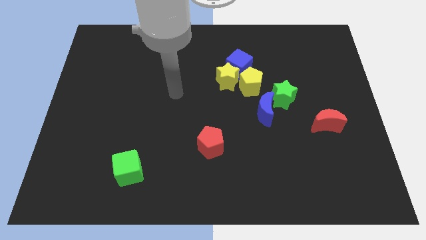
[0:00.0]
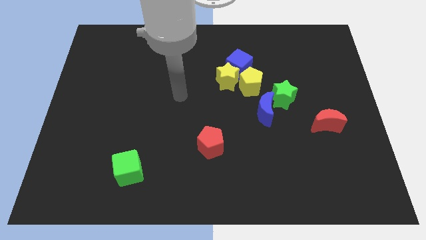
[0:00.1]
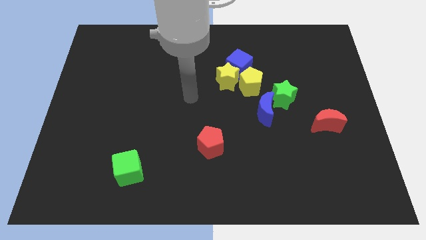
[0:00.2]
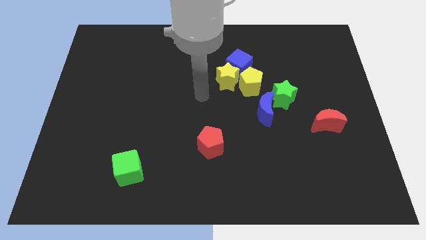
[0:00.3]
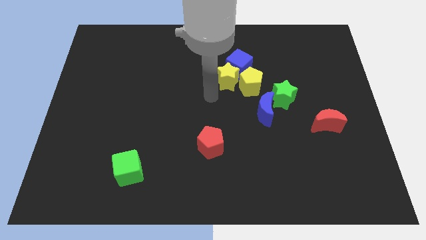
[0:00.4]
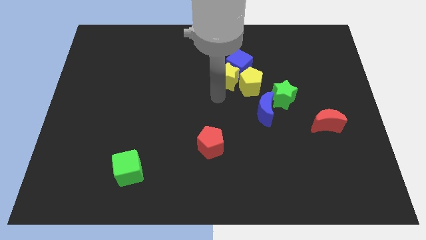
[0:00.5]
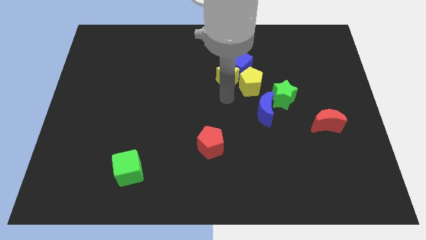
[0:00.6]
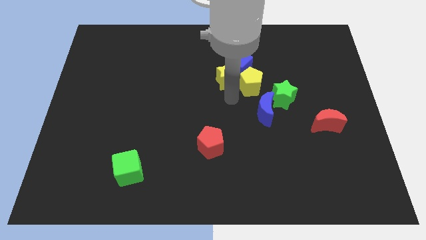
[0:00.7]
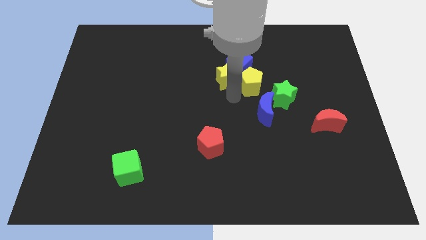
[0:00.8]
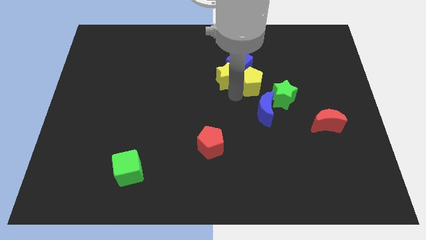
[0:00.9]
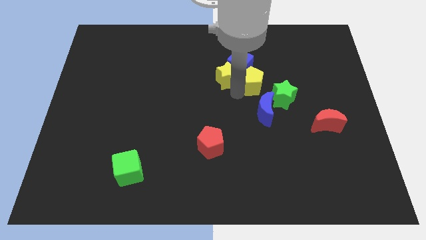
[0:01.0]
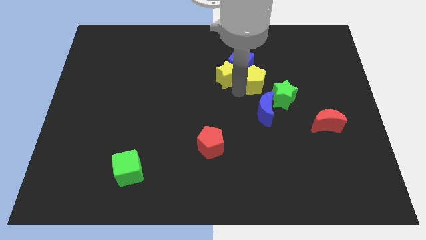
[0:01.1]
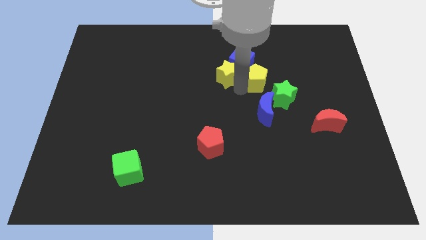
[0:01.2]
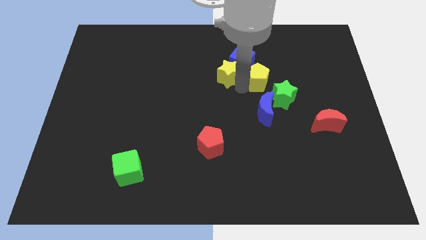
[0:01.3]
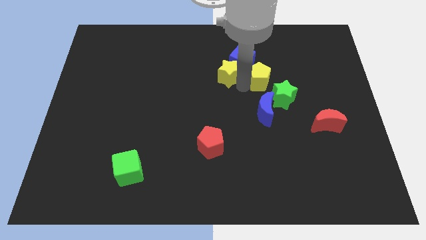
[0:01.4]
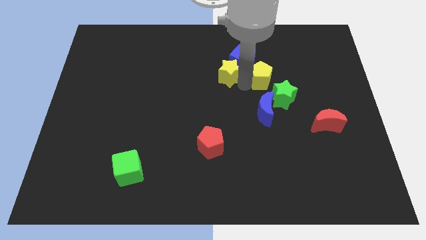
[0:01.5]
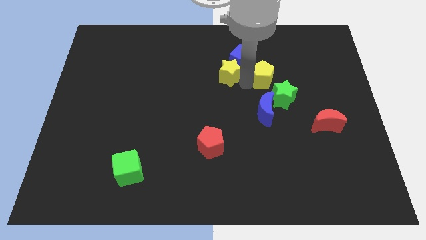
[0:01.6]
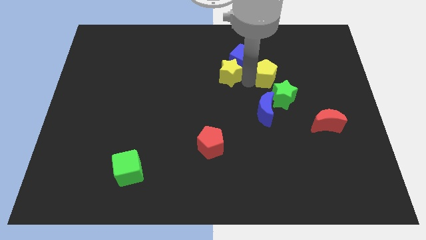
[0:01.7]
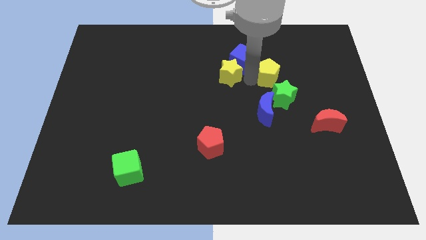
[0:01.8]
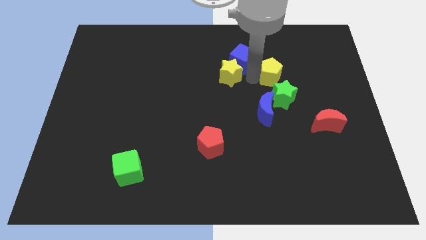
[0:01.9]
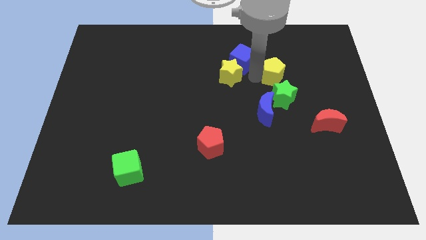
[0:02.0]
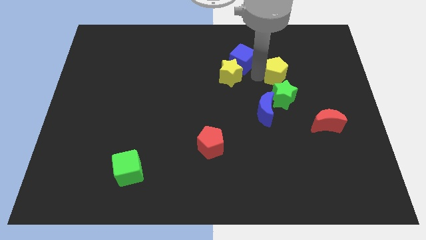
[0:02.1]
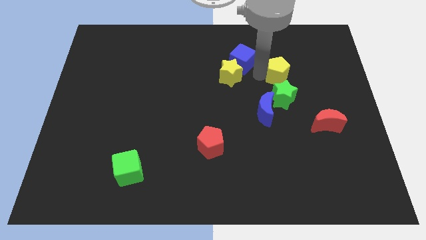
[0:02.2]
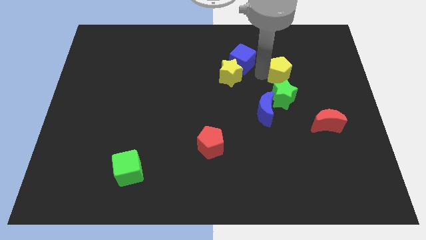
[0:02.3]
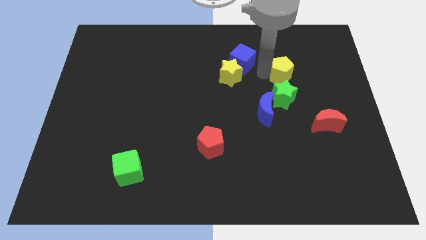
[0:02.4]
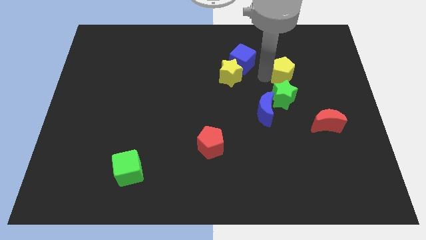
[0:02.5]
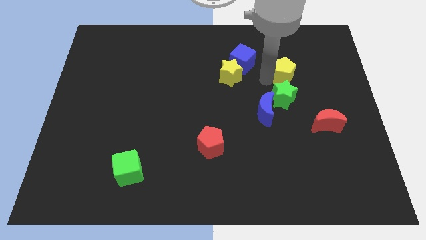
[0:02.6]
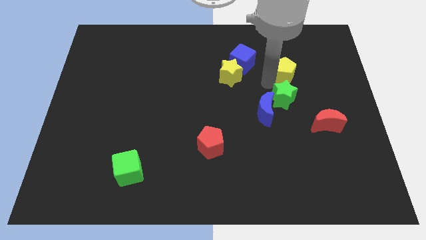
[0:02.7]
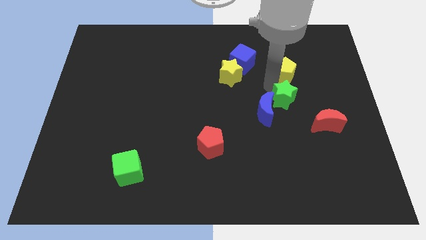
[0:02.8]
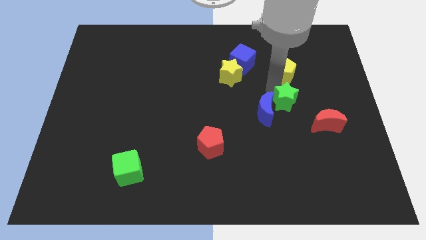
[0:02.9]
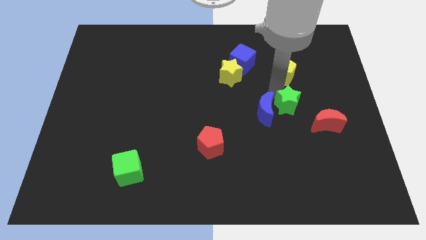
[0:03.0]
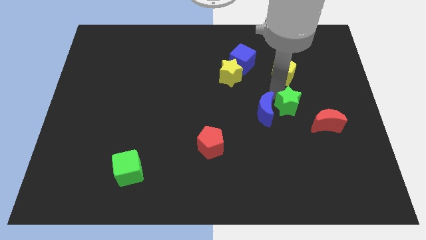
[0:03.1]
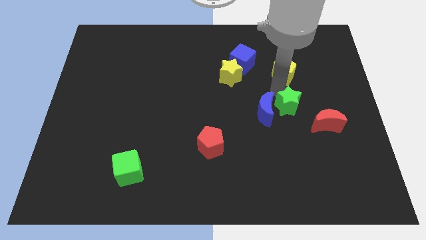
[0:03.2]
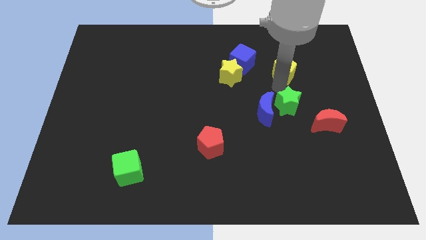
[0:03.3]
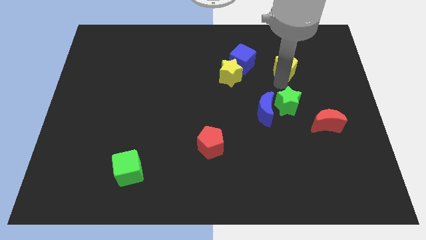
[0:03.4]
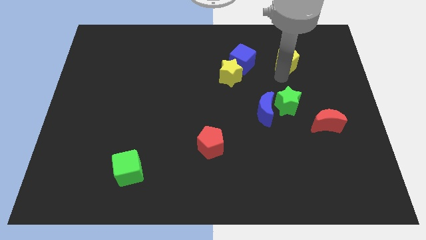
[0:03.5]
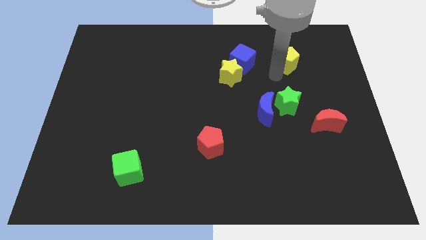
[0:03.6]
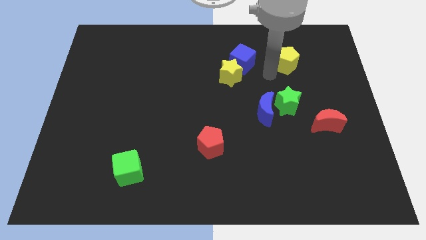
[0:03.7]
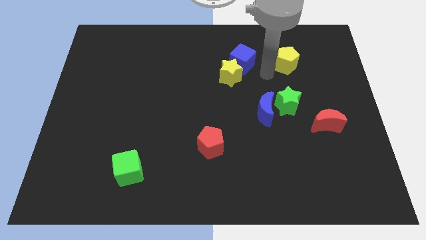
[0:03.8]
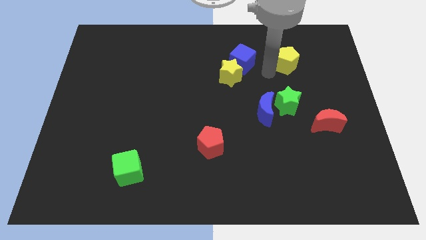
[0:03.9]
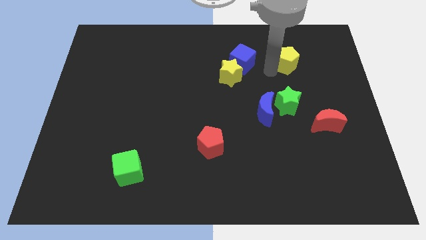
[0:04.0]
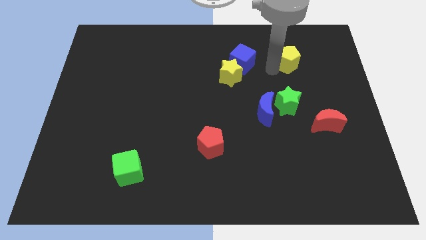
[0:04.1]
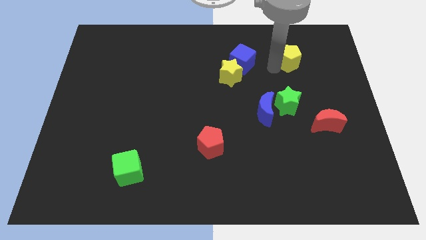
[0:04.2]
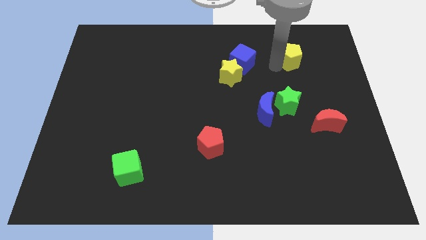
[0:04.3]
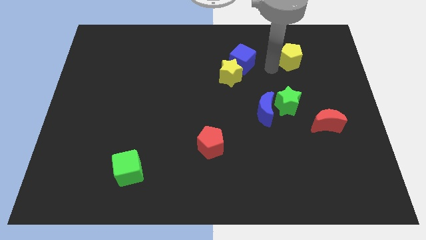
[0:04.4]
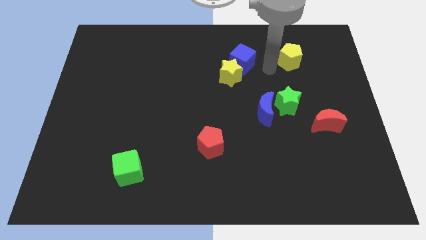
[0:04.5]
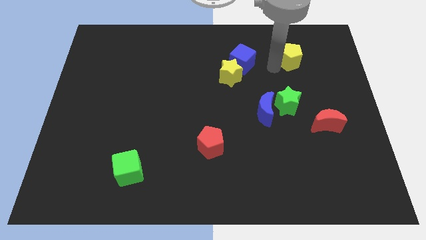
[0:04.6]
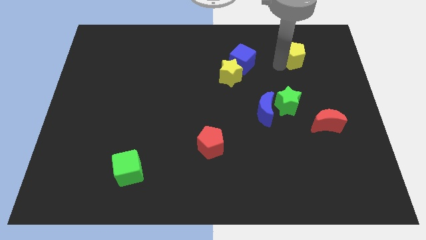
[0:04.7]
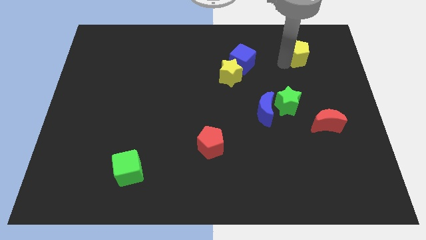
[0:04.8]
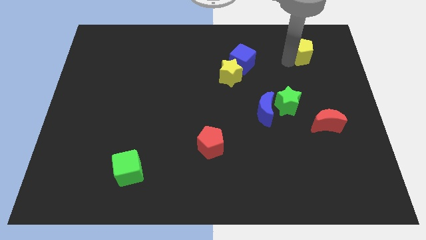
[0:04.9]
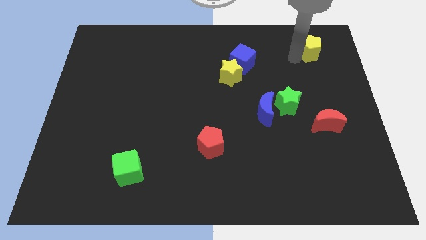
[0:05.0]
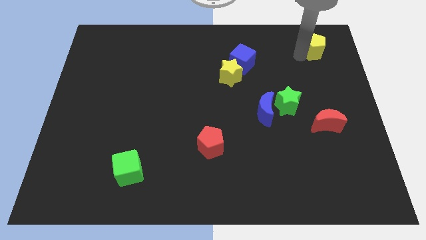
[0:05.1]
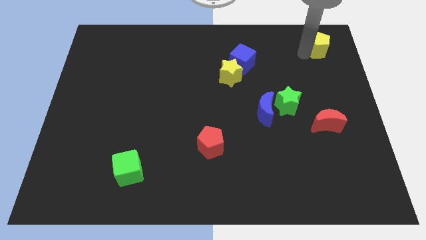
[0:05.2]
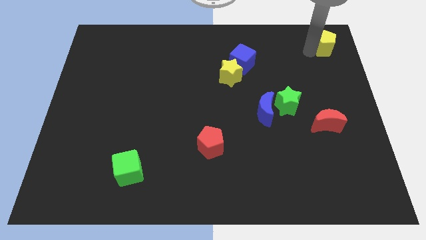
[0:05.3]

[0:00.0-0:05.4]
push the yellow pentagon to the top right of the board

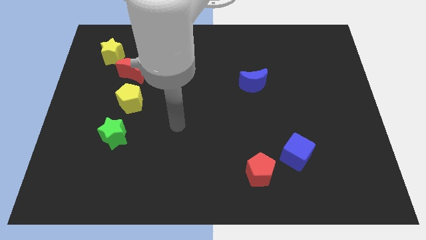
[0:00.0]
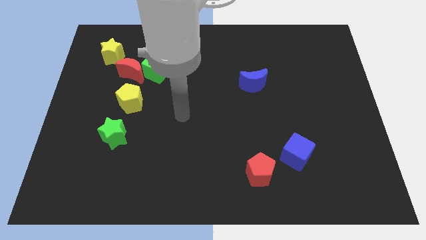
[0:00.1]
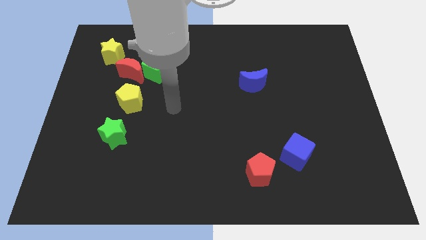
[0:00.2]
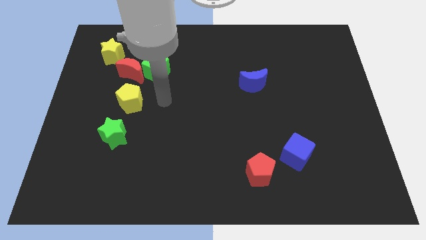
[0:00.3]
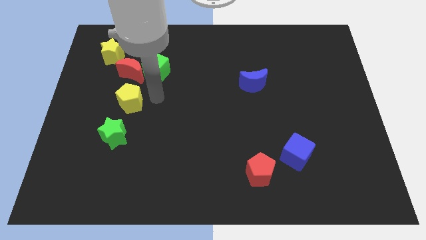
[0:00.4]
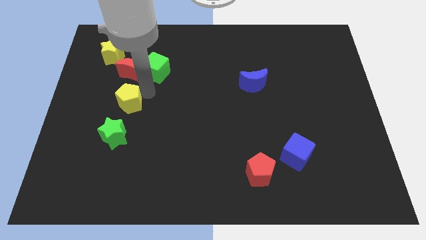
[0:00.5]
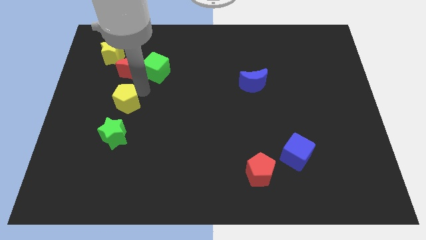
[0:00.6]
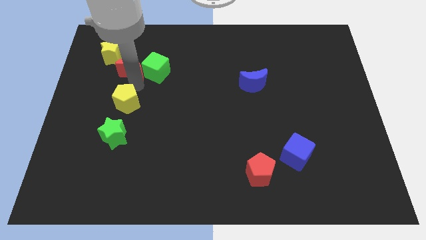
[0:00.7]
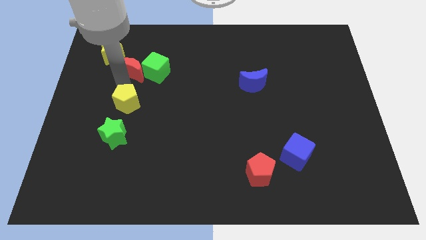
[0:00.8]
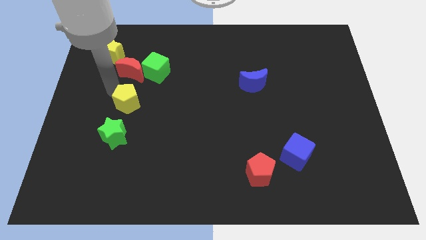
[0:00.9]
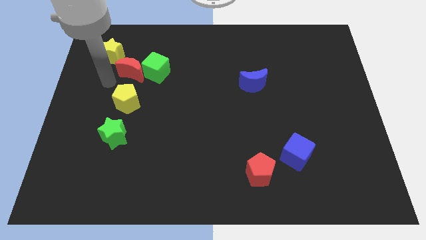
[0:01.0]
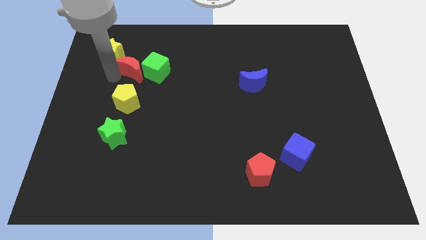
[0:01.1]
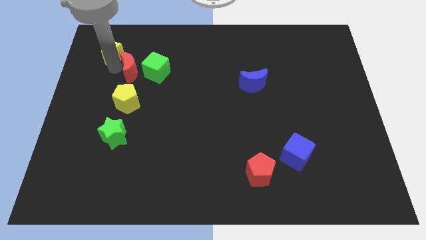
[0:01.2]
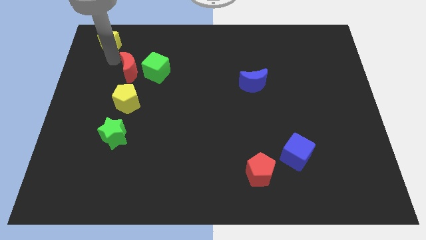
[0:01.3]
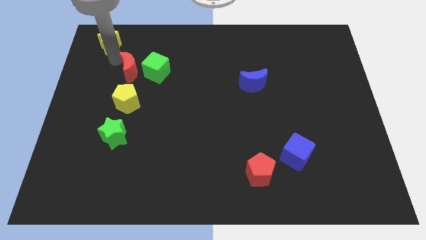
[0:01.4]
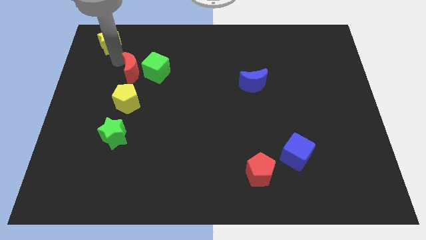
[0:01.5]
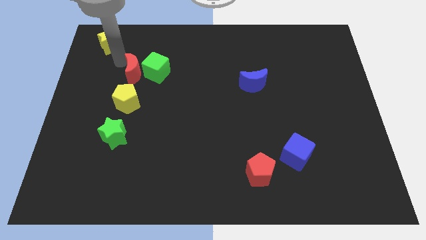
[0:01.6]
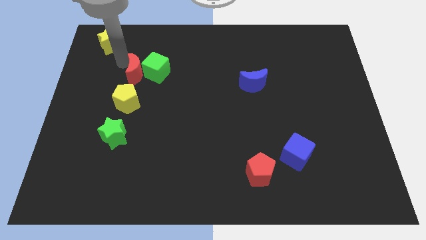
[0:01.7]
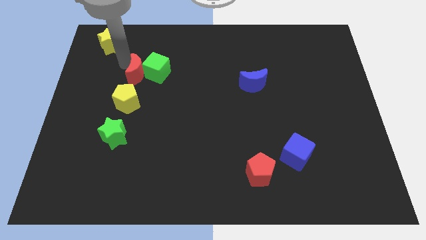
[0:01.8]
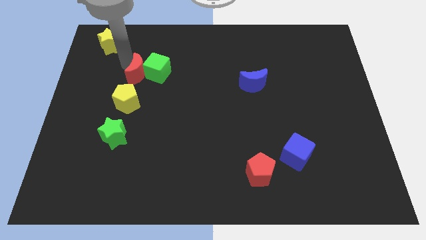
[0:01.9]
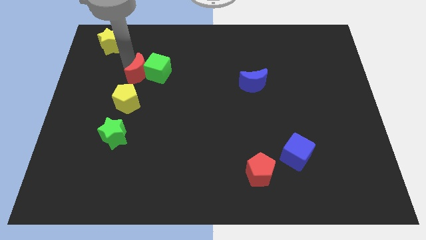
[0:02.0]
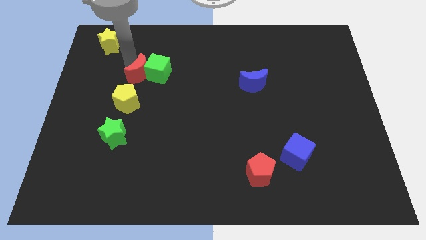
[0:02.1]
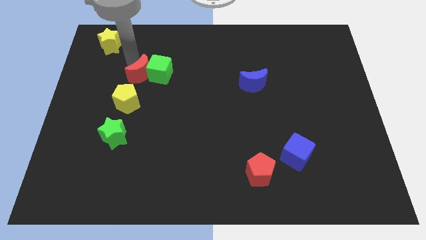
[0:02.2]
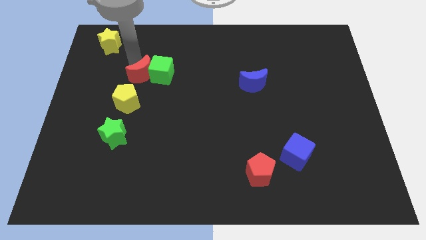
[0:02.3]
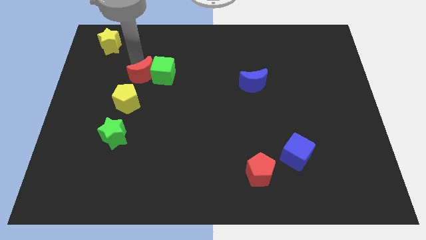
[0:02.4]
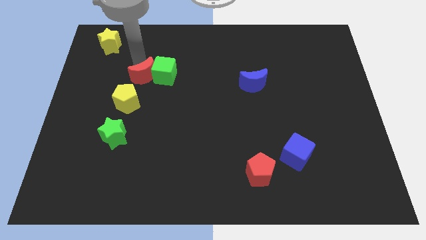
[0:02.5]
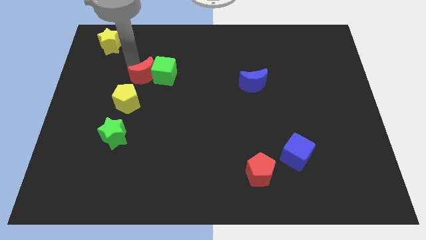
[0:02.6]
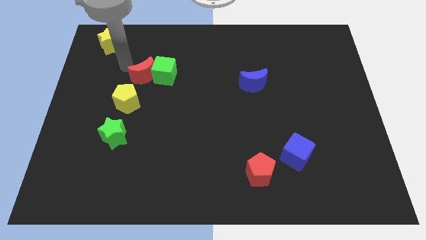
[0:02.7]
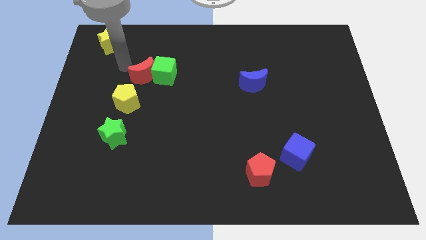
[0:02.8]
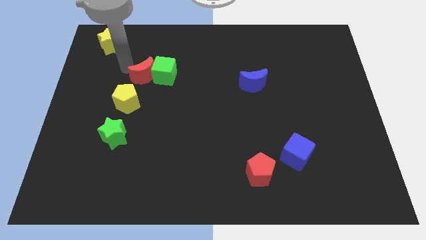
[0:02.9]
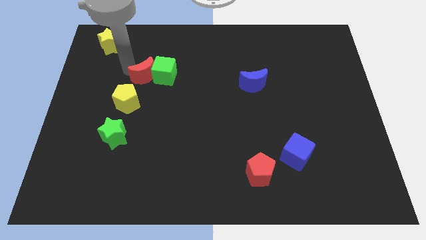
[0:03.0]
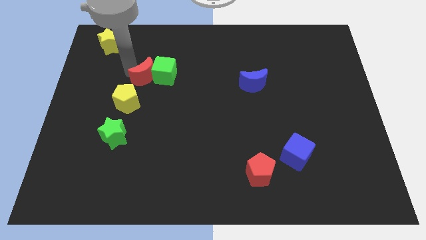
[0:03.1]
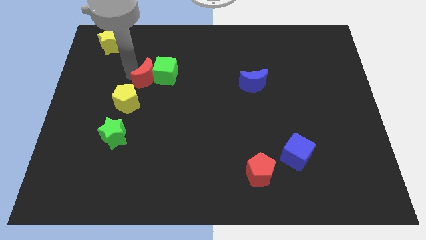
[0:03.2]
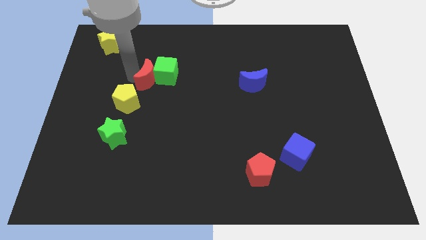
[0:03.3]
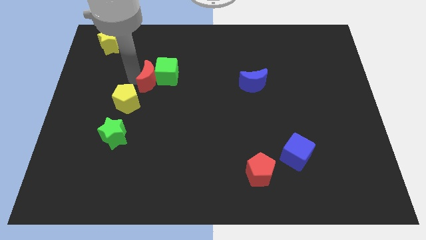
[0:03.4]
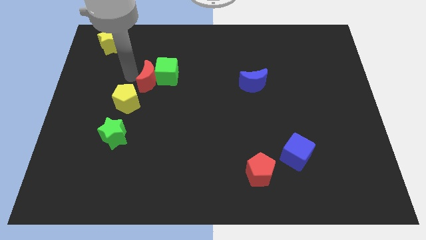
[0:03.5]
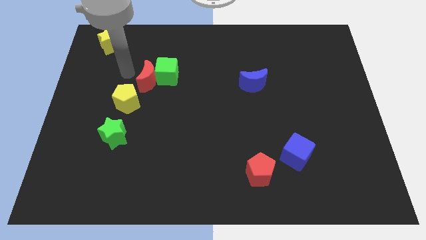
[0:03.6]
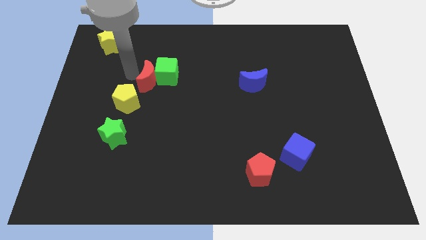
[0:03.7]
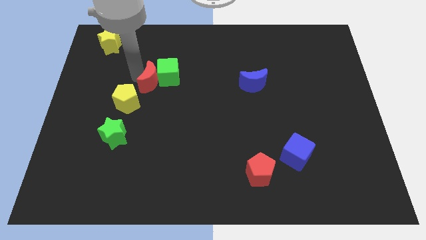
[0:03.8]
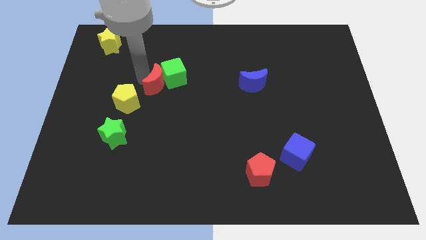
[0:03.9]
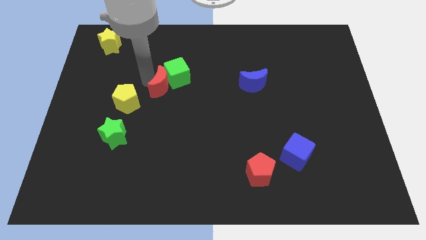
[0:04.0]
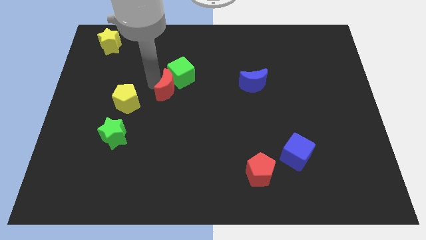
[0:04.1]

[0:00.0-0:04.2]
move the red moon to the middle of the board
